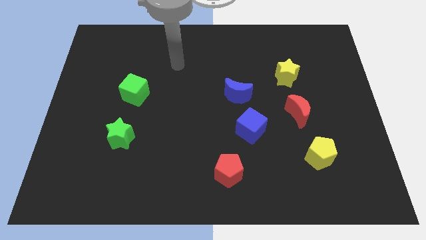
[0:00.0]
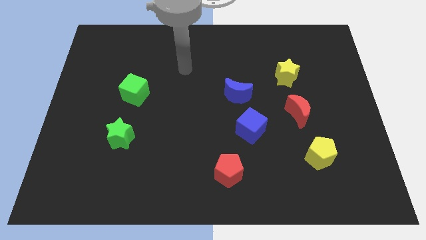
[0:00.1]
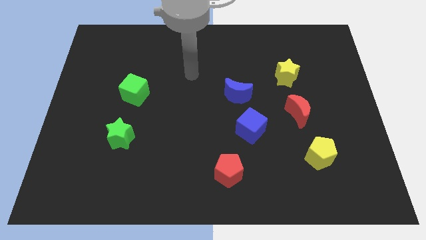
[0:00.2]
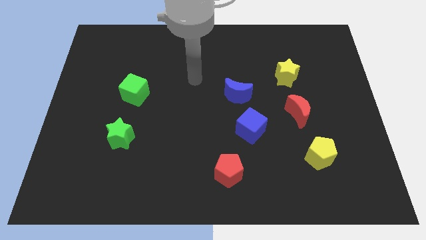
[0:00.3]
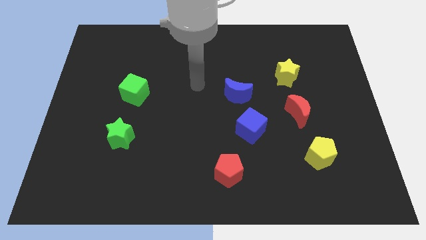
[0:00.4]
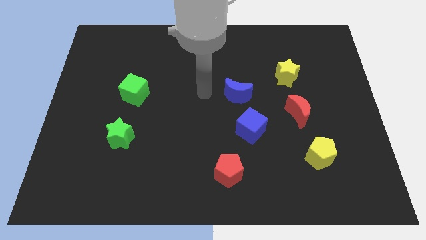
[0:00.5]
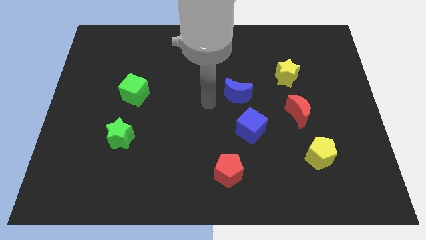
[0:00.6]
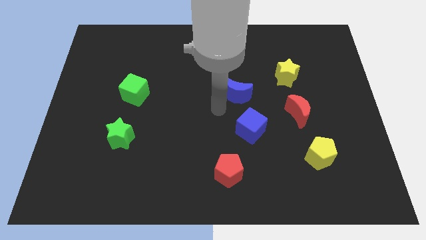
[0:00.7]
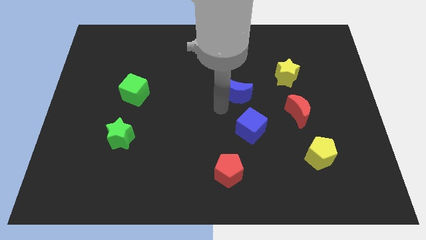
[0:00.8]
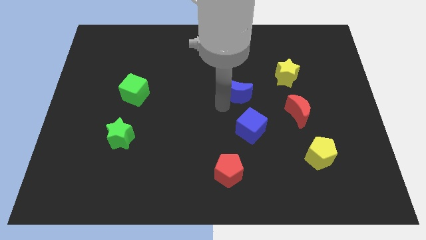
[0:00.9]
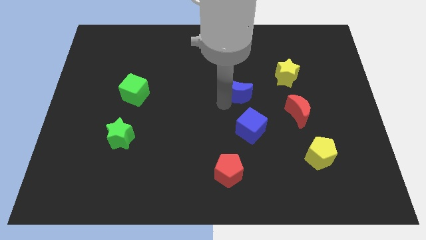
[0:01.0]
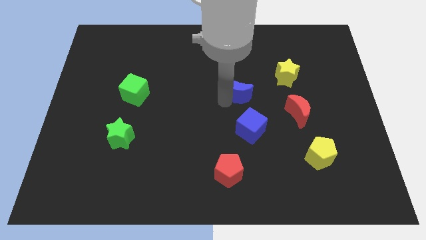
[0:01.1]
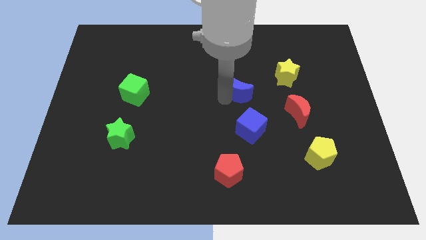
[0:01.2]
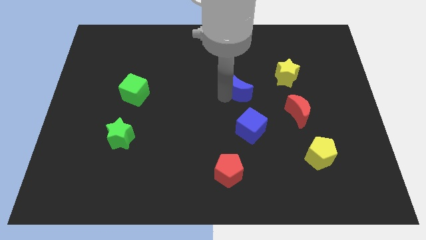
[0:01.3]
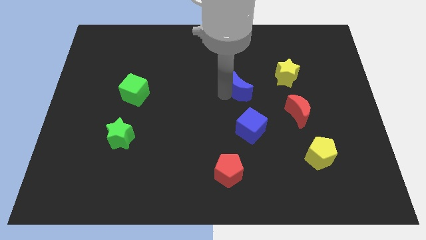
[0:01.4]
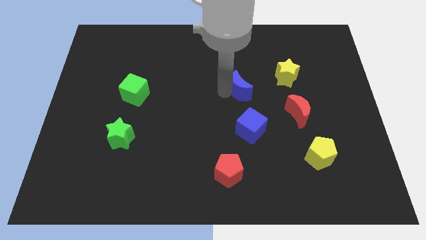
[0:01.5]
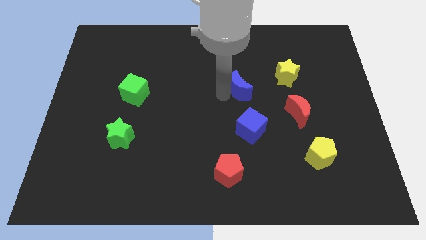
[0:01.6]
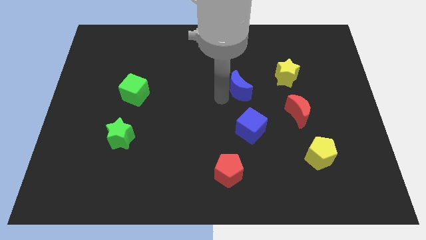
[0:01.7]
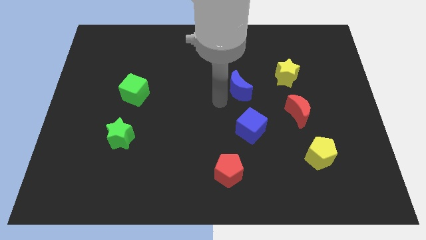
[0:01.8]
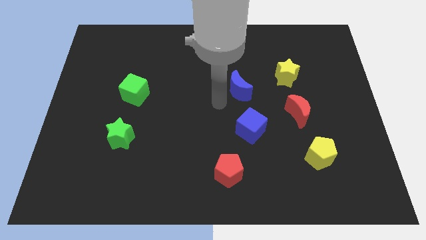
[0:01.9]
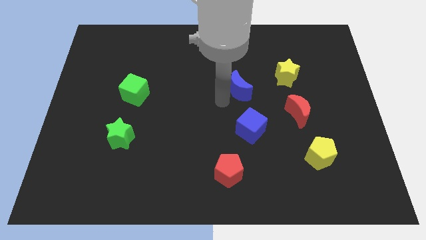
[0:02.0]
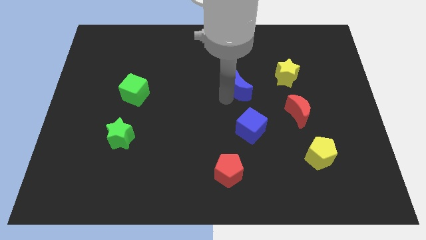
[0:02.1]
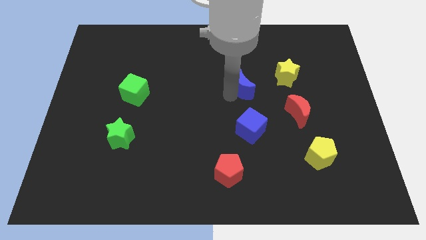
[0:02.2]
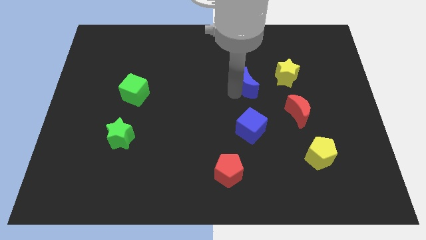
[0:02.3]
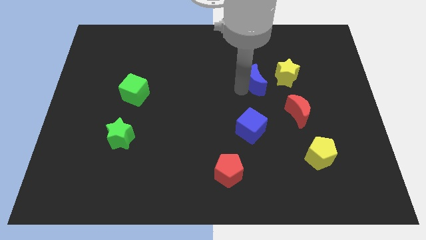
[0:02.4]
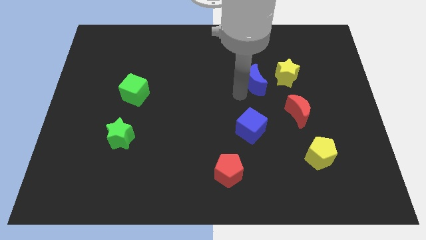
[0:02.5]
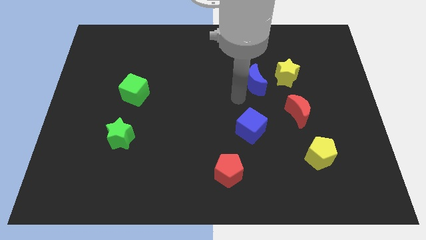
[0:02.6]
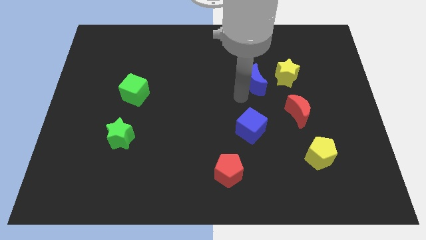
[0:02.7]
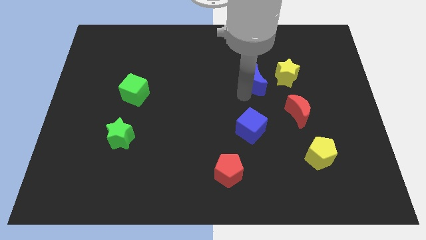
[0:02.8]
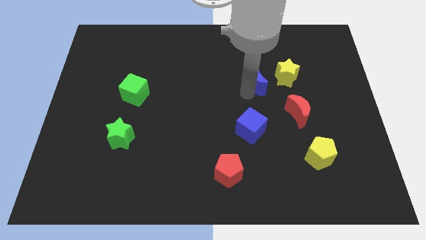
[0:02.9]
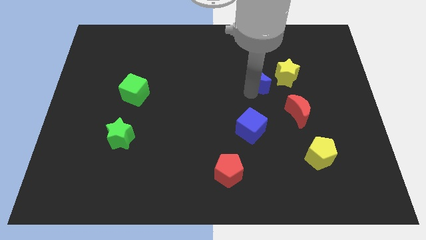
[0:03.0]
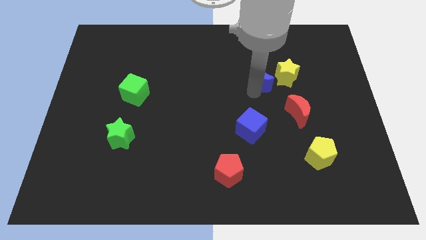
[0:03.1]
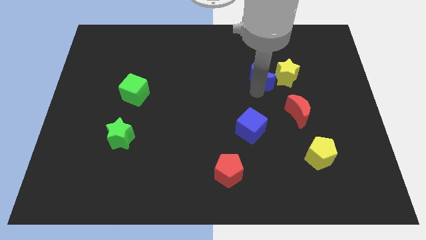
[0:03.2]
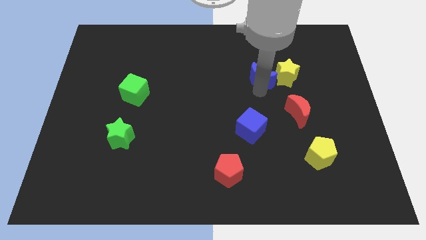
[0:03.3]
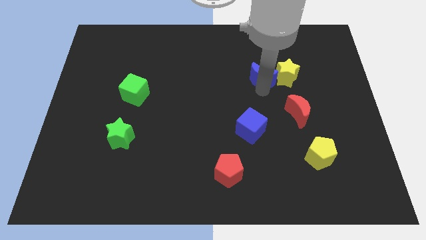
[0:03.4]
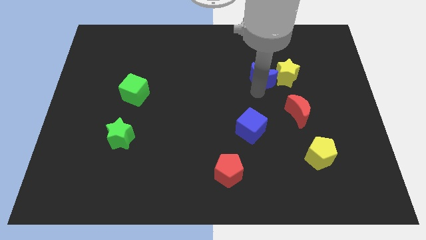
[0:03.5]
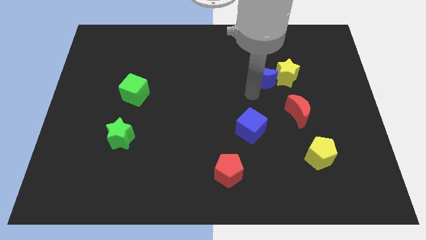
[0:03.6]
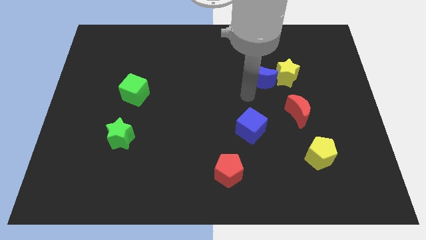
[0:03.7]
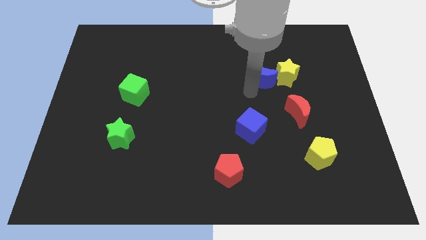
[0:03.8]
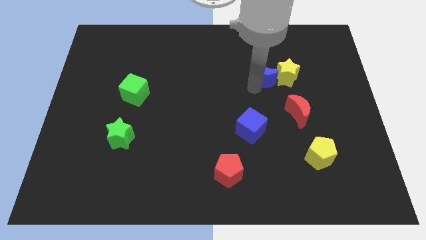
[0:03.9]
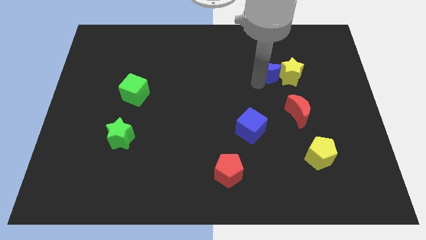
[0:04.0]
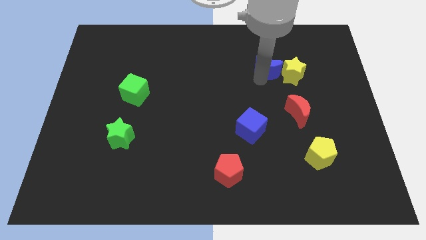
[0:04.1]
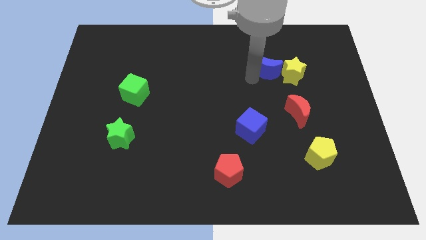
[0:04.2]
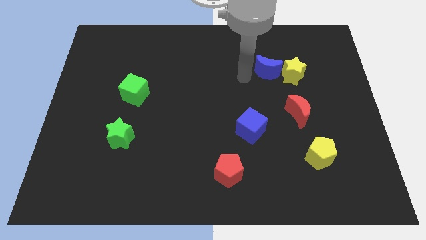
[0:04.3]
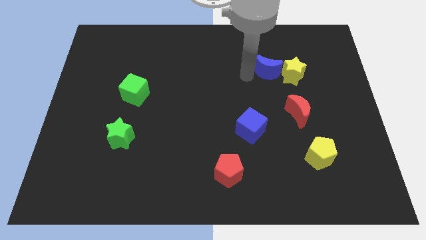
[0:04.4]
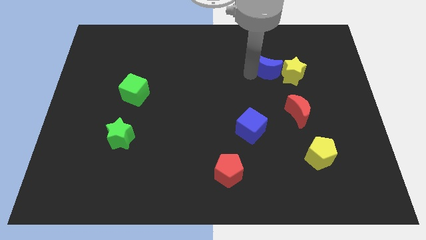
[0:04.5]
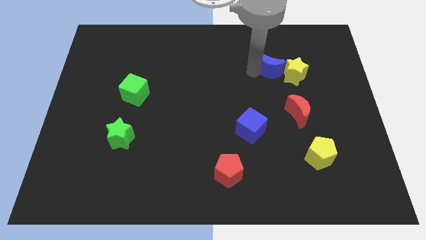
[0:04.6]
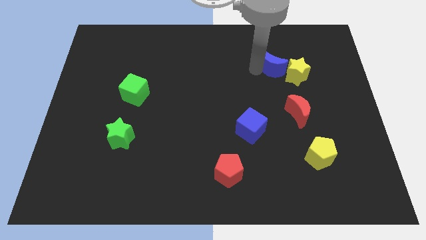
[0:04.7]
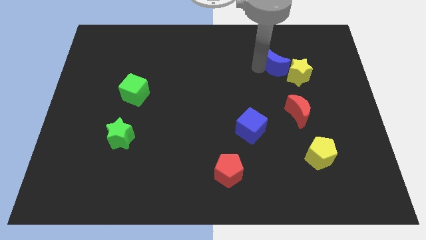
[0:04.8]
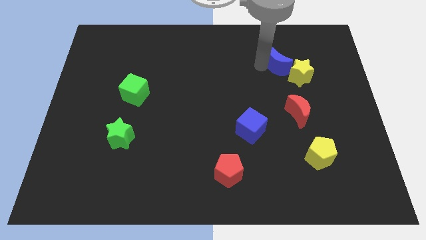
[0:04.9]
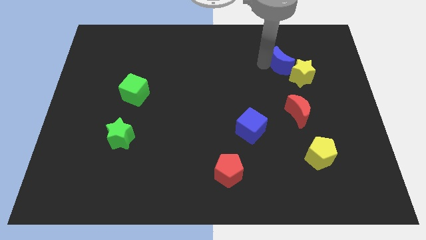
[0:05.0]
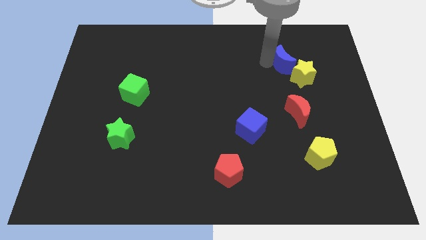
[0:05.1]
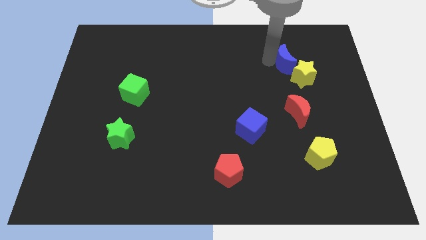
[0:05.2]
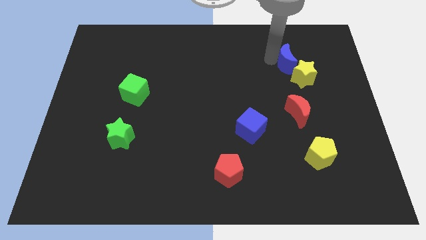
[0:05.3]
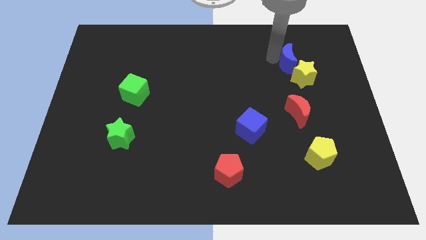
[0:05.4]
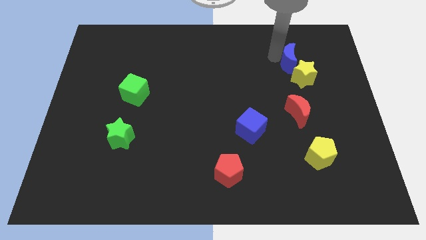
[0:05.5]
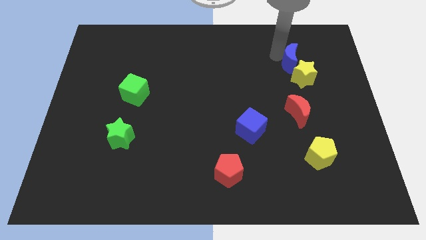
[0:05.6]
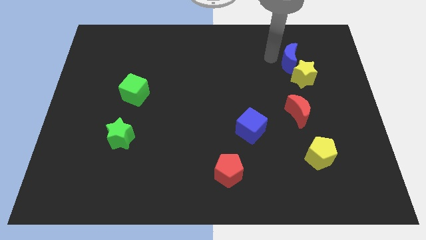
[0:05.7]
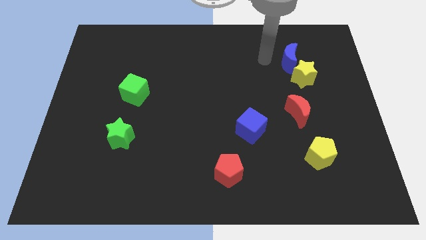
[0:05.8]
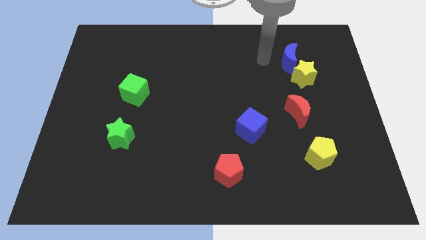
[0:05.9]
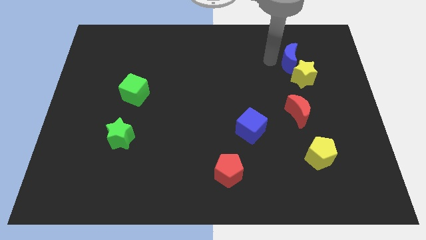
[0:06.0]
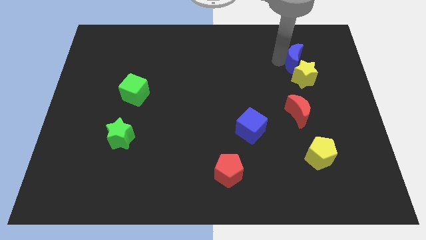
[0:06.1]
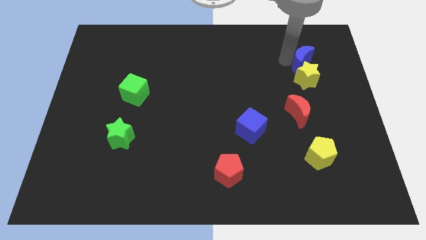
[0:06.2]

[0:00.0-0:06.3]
push the blue moon to the top right of the yellow star

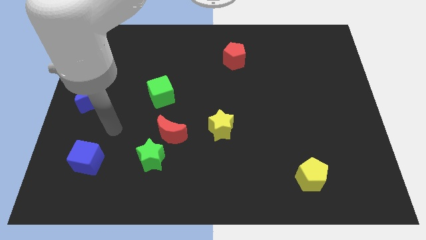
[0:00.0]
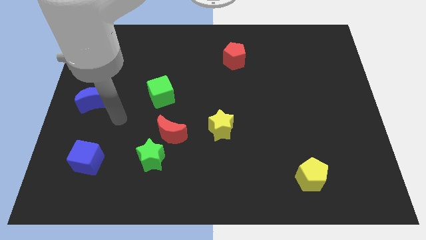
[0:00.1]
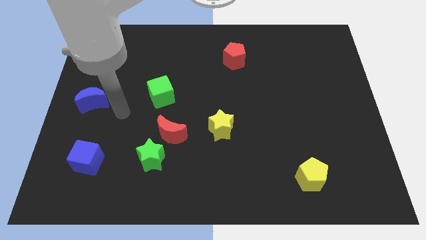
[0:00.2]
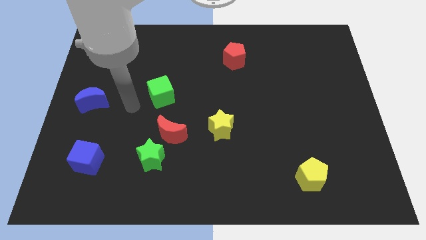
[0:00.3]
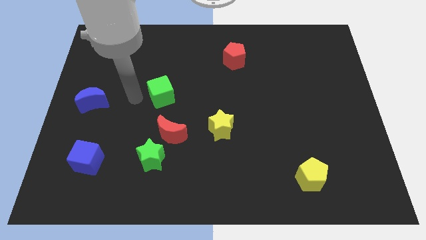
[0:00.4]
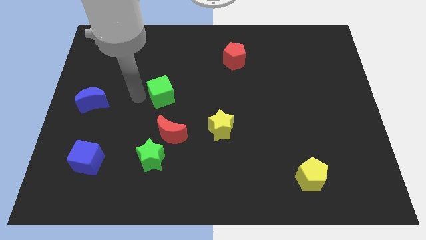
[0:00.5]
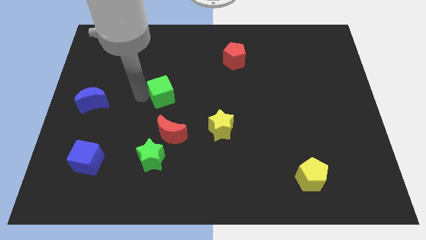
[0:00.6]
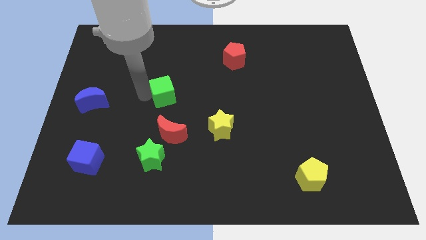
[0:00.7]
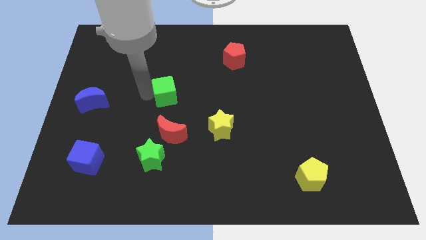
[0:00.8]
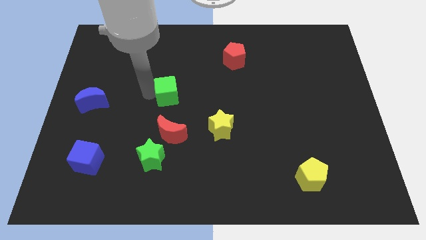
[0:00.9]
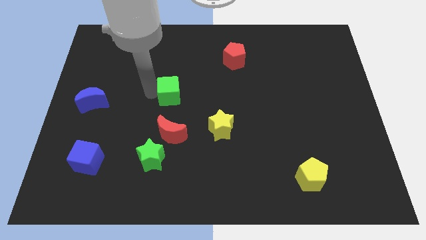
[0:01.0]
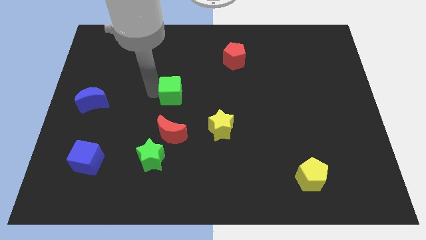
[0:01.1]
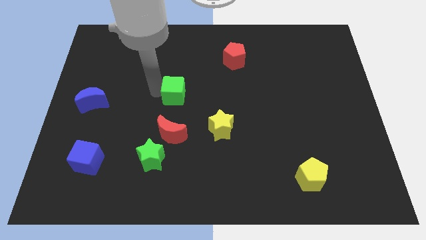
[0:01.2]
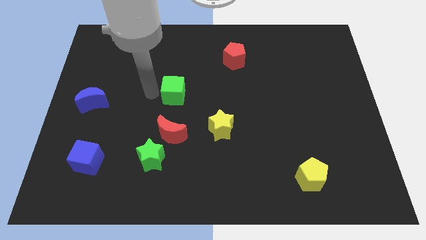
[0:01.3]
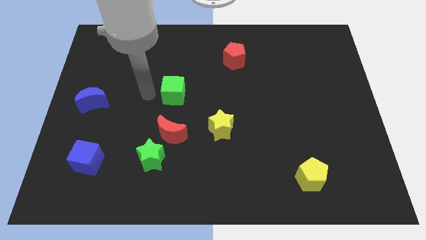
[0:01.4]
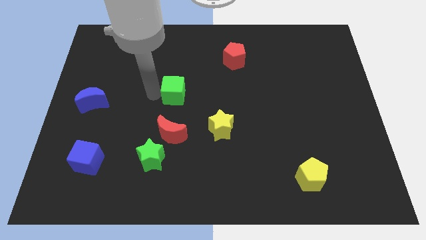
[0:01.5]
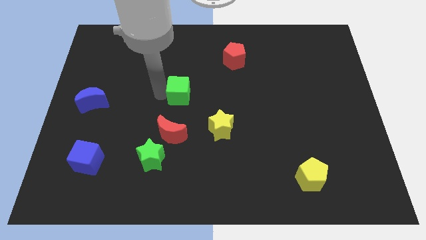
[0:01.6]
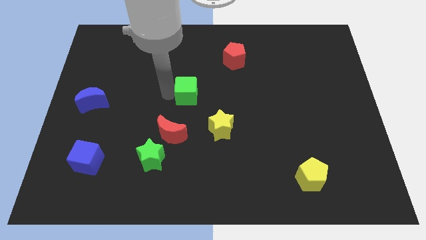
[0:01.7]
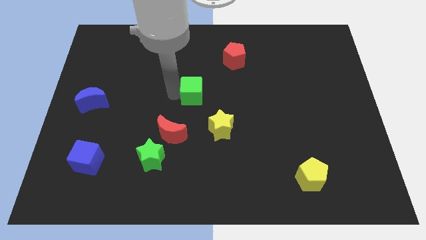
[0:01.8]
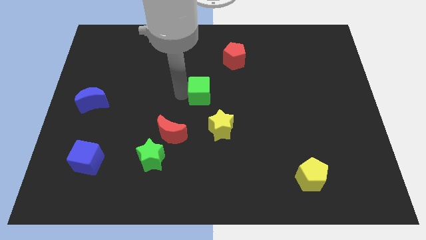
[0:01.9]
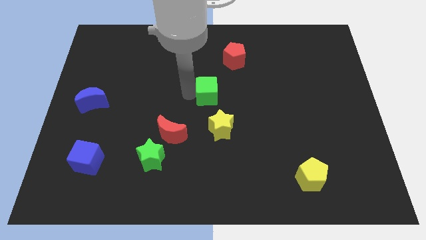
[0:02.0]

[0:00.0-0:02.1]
put the green cube above the yellow star

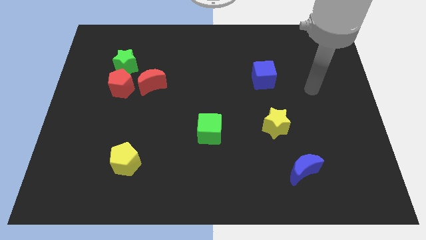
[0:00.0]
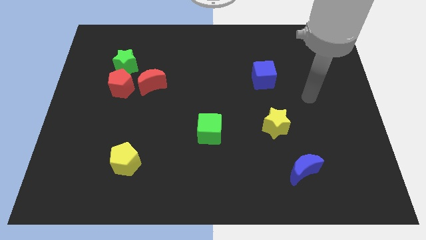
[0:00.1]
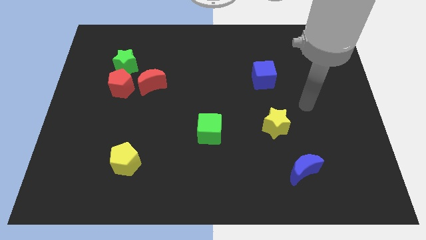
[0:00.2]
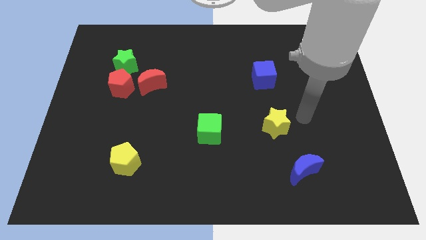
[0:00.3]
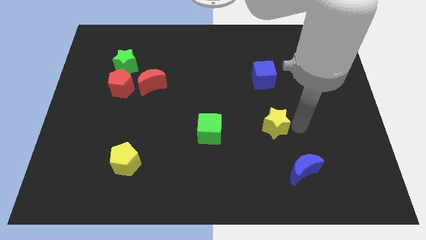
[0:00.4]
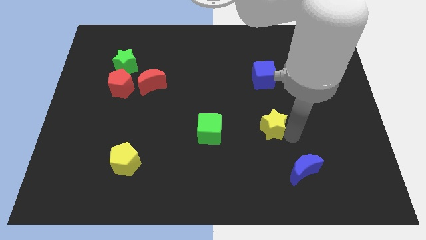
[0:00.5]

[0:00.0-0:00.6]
move the blue moon diagonally down and to the right of the yellow star
